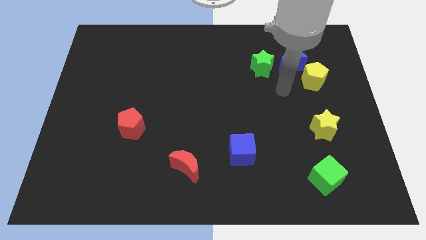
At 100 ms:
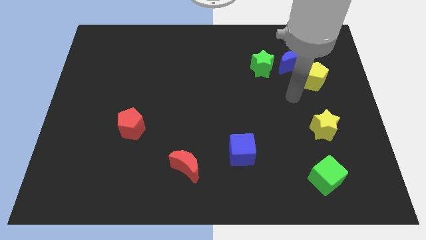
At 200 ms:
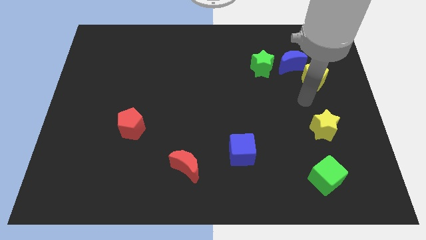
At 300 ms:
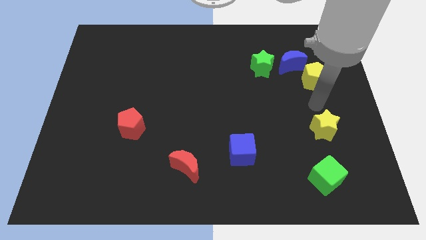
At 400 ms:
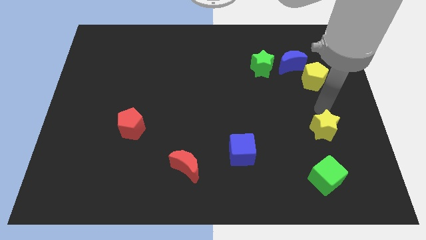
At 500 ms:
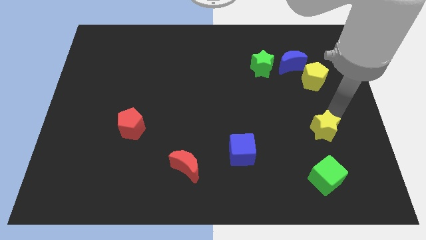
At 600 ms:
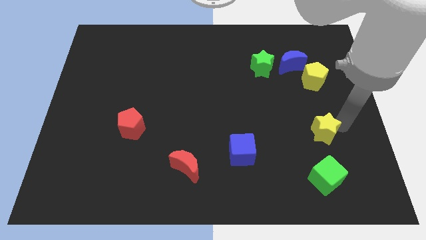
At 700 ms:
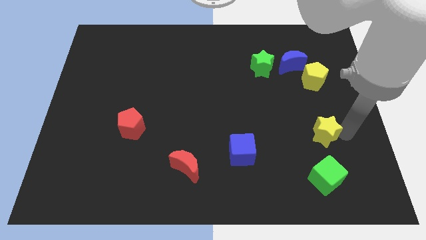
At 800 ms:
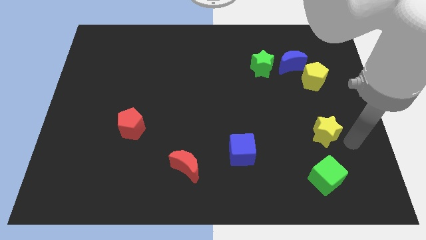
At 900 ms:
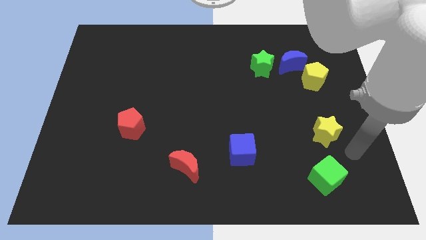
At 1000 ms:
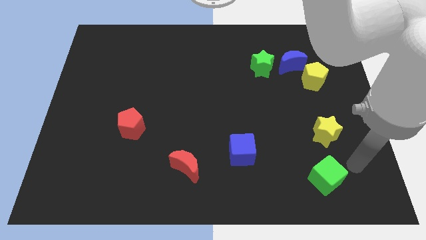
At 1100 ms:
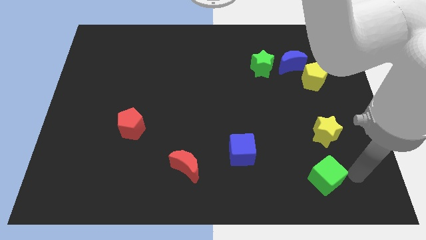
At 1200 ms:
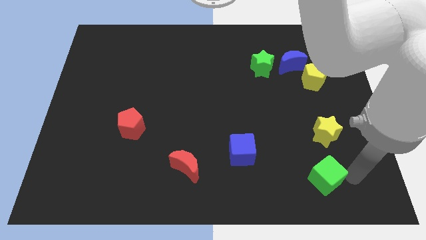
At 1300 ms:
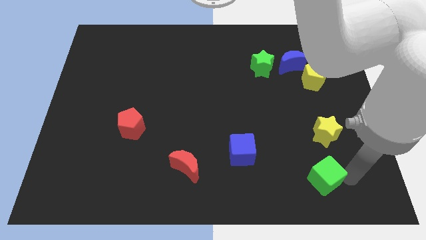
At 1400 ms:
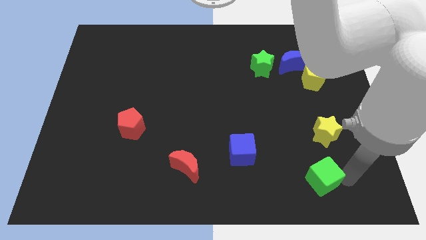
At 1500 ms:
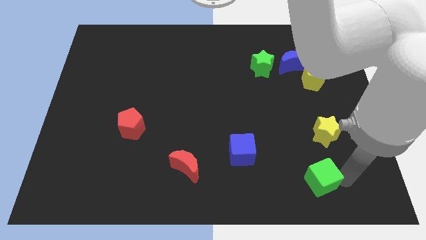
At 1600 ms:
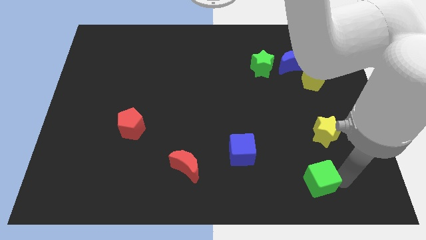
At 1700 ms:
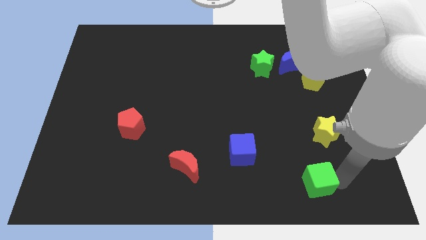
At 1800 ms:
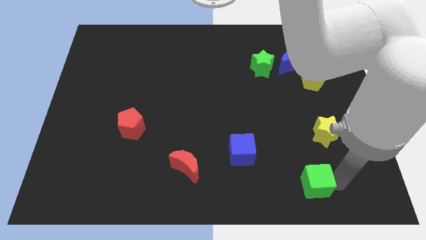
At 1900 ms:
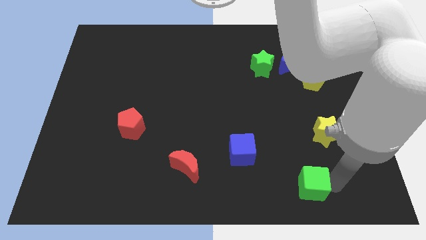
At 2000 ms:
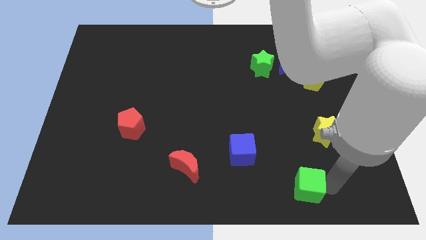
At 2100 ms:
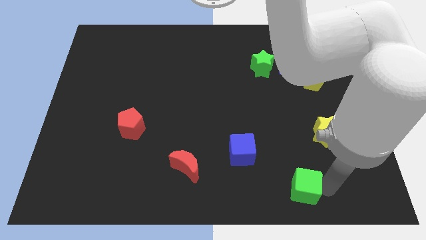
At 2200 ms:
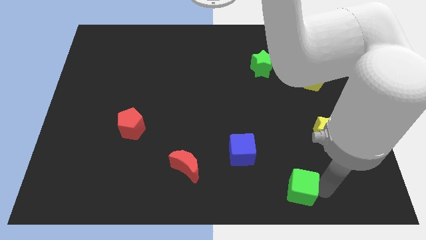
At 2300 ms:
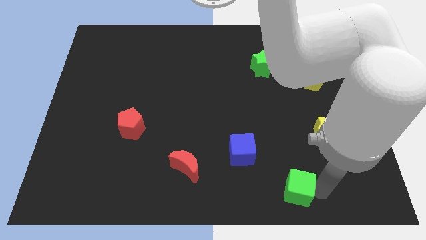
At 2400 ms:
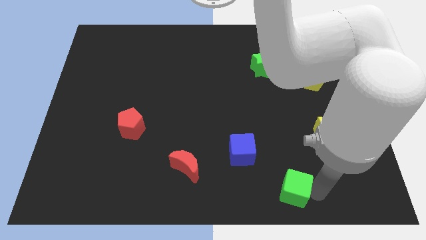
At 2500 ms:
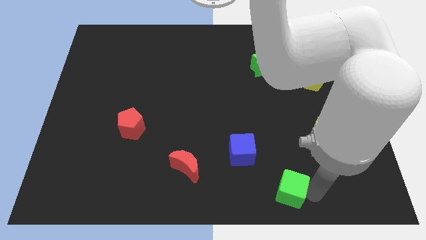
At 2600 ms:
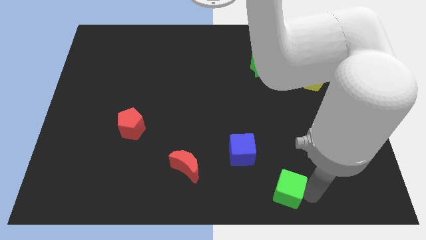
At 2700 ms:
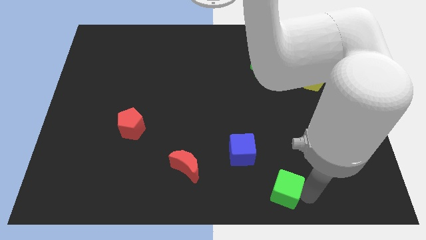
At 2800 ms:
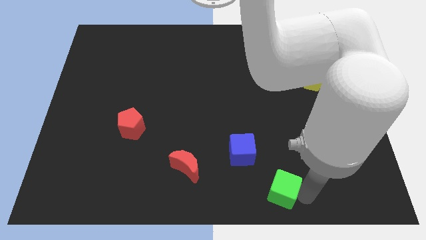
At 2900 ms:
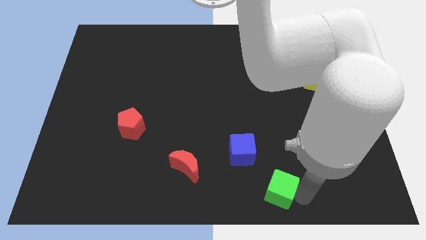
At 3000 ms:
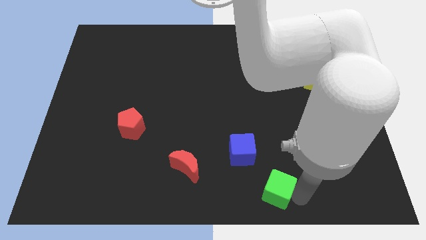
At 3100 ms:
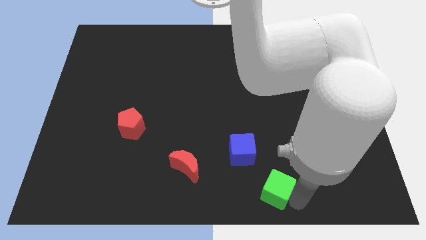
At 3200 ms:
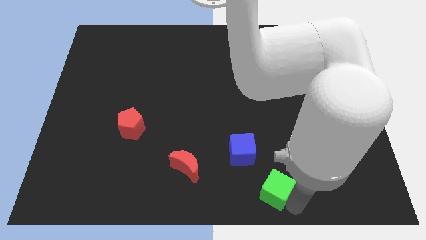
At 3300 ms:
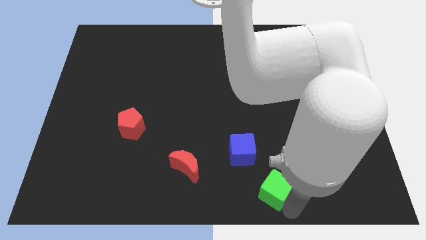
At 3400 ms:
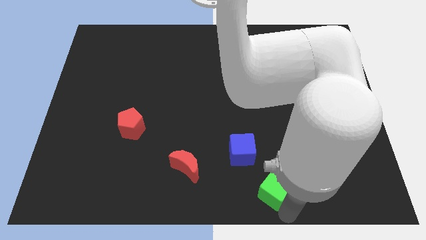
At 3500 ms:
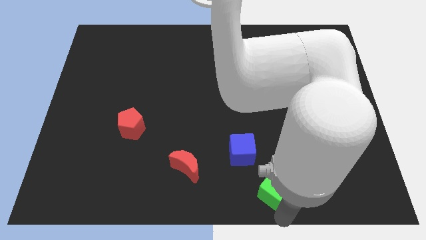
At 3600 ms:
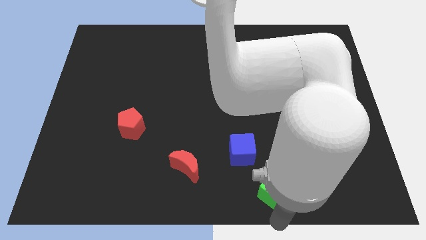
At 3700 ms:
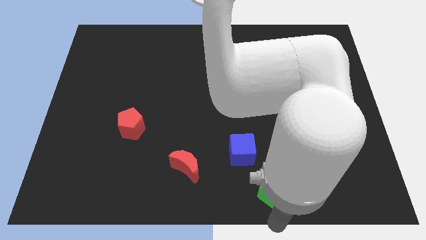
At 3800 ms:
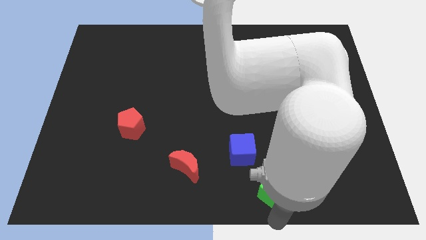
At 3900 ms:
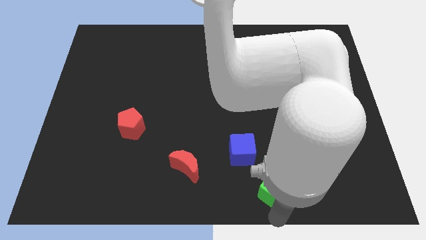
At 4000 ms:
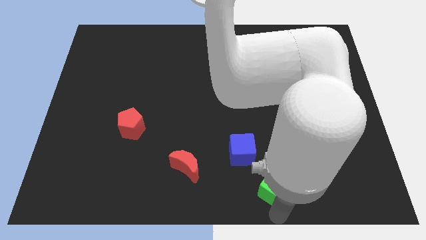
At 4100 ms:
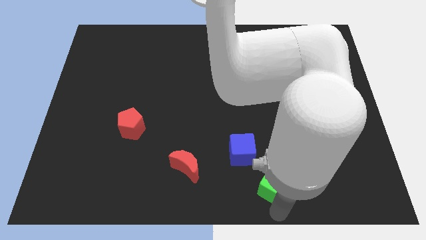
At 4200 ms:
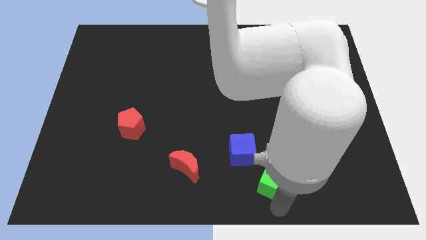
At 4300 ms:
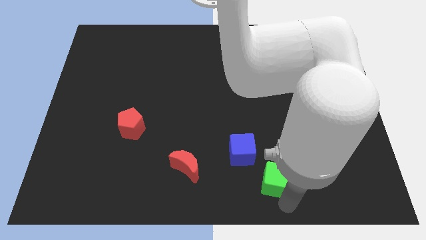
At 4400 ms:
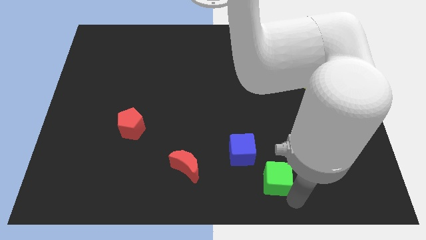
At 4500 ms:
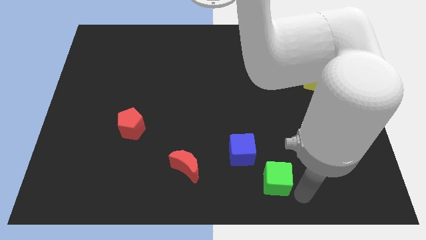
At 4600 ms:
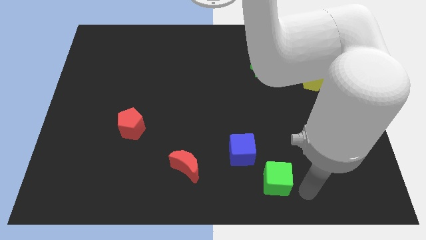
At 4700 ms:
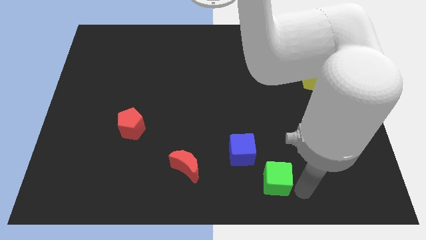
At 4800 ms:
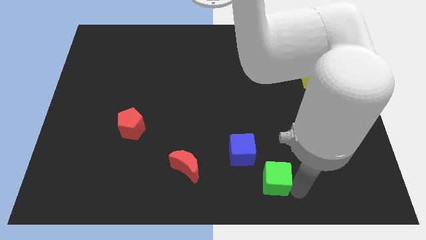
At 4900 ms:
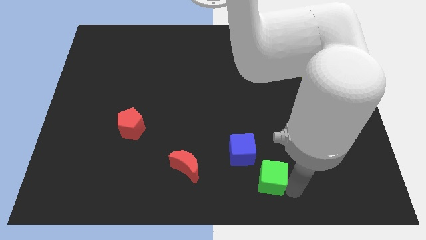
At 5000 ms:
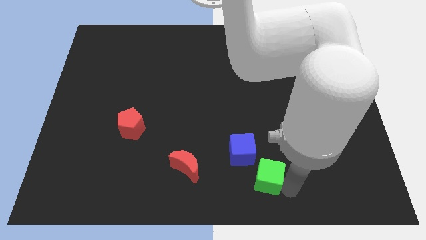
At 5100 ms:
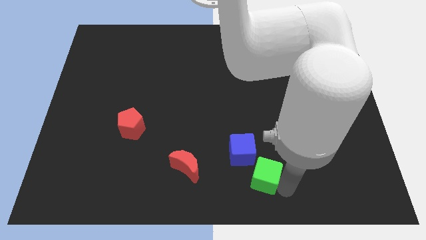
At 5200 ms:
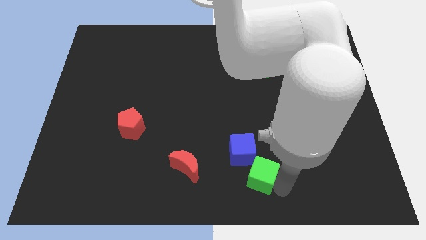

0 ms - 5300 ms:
put the green cube to the right of the red moon

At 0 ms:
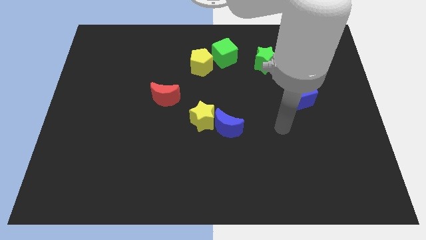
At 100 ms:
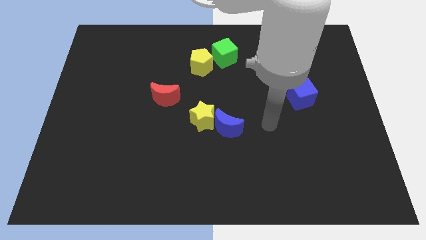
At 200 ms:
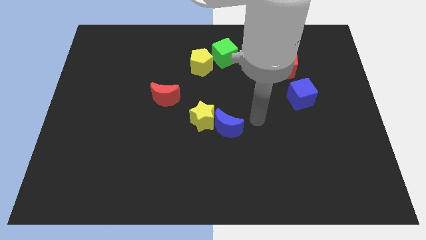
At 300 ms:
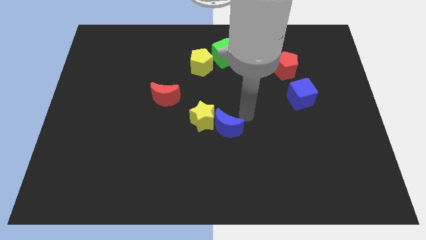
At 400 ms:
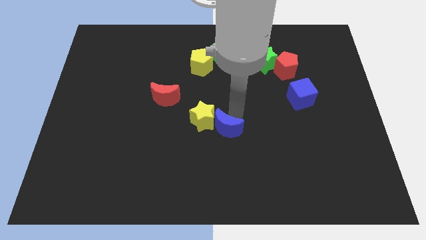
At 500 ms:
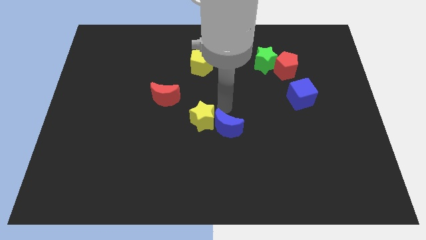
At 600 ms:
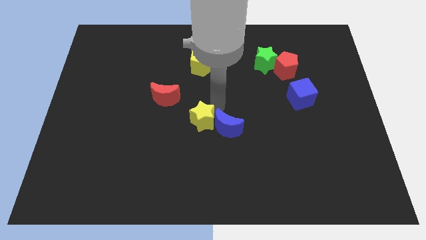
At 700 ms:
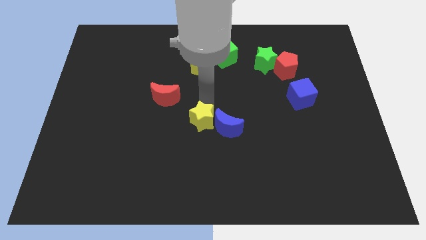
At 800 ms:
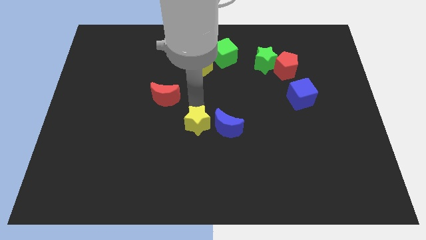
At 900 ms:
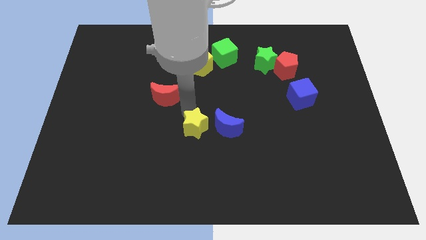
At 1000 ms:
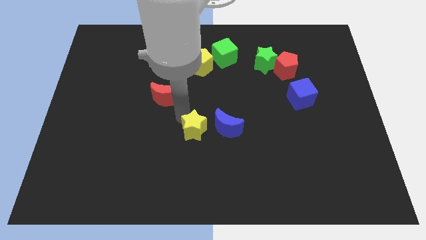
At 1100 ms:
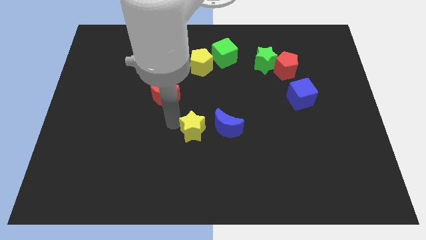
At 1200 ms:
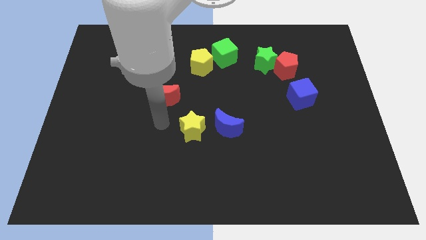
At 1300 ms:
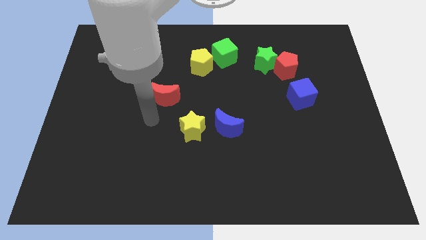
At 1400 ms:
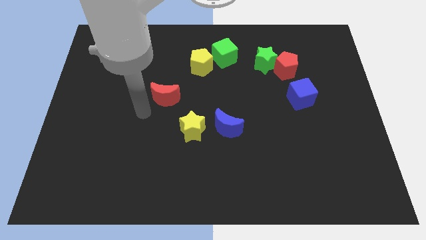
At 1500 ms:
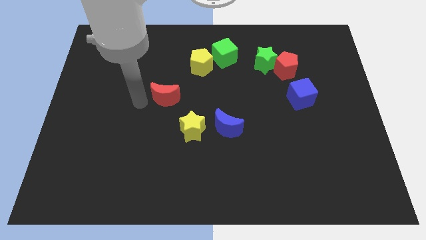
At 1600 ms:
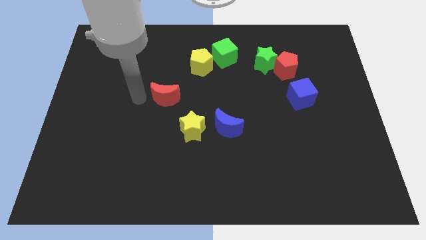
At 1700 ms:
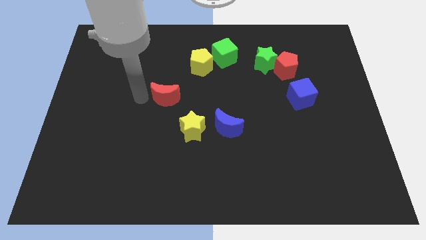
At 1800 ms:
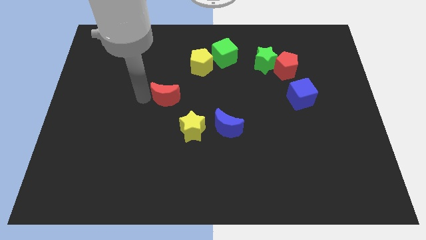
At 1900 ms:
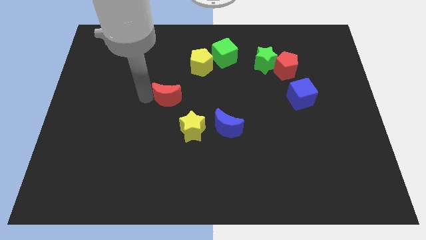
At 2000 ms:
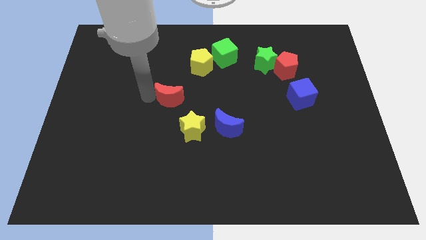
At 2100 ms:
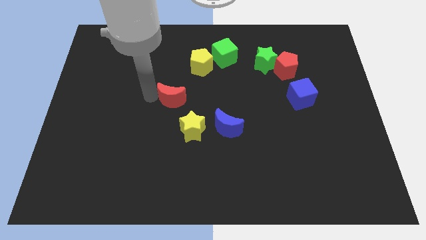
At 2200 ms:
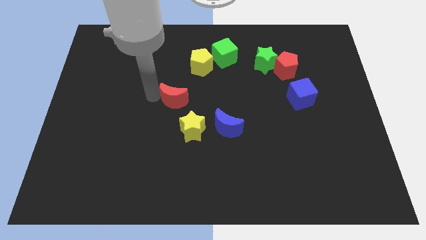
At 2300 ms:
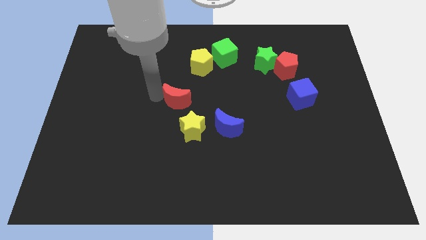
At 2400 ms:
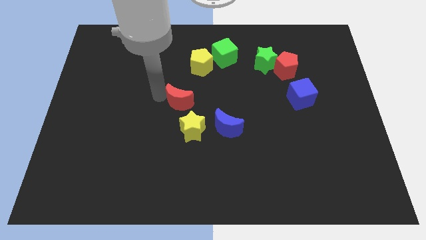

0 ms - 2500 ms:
move the red moon to the bottom of the yellow pentagon
